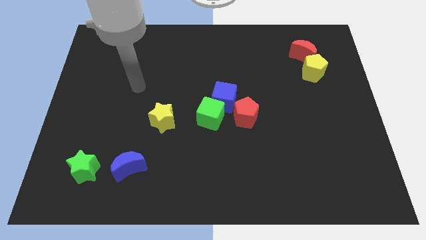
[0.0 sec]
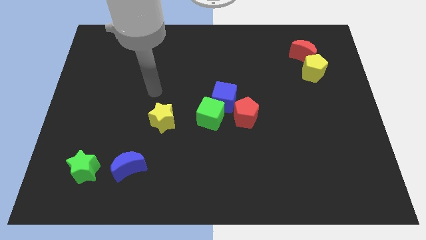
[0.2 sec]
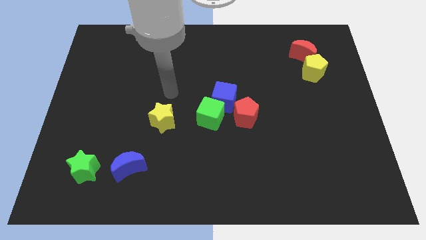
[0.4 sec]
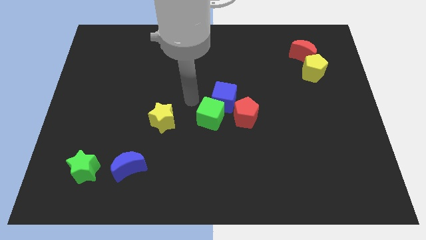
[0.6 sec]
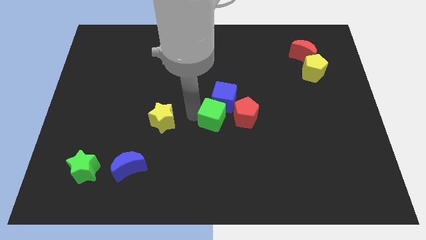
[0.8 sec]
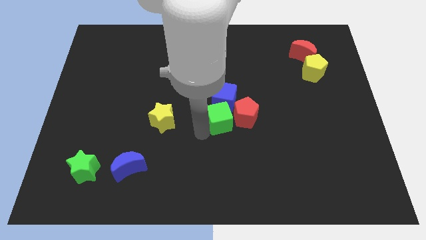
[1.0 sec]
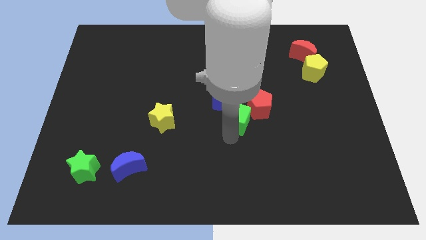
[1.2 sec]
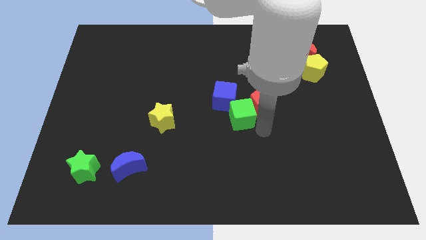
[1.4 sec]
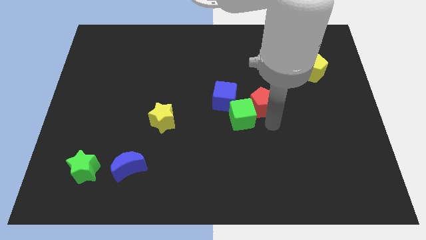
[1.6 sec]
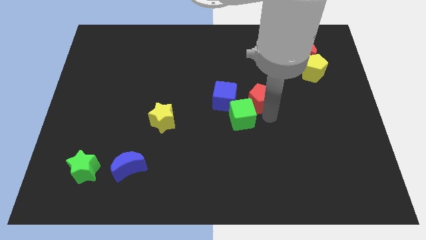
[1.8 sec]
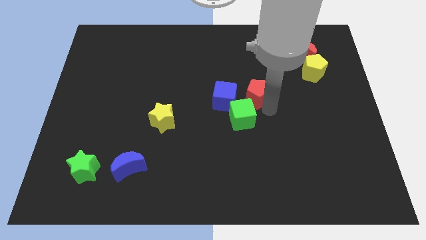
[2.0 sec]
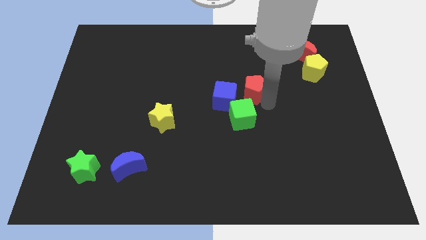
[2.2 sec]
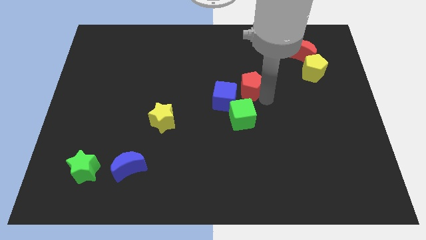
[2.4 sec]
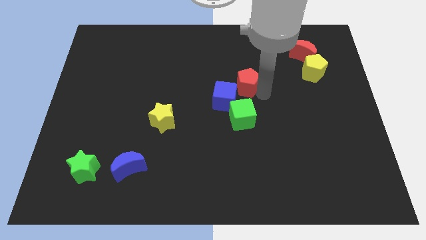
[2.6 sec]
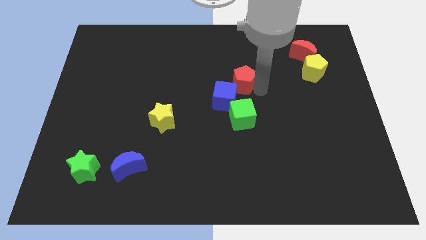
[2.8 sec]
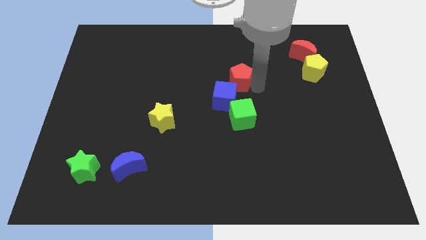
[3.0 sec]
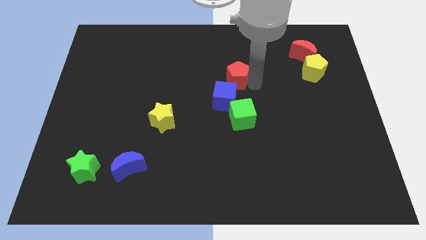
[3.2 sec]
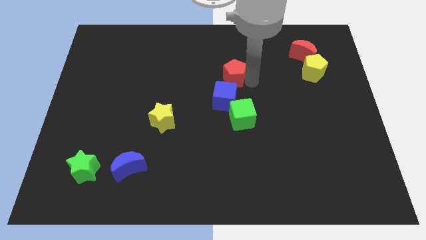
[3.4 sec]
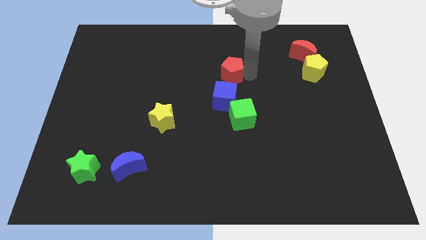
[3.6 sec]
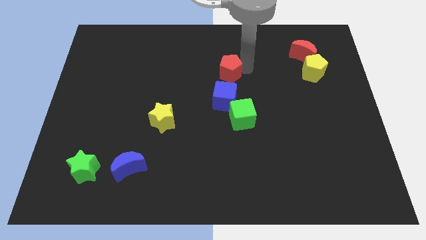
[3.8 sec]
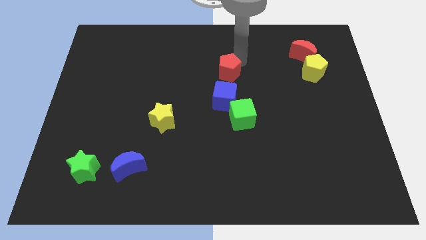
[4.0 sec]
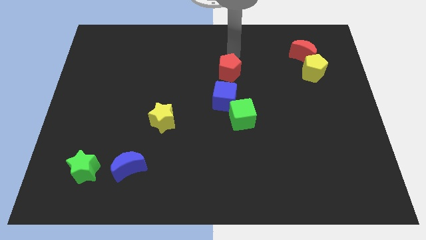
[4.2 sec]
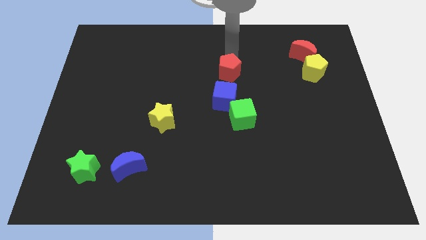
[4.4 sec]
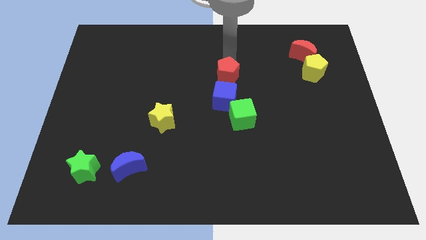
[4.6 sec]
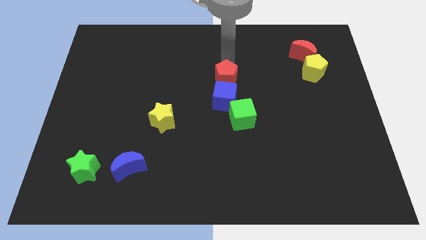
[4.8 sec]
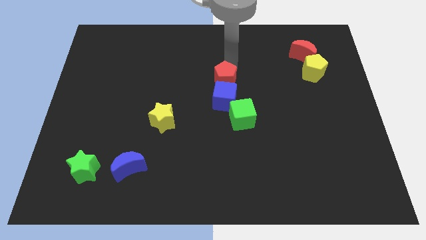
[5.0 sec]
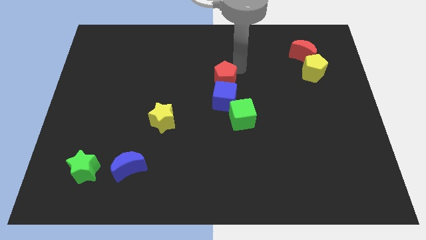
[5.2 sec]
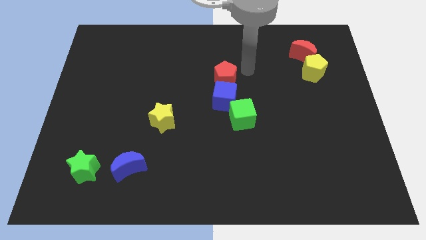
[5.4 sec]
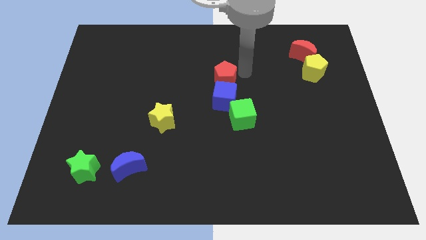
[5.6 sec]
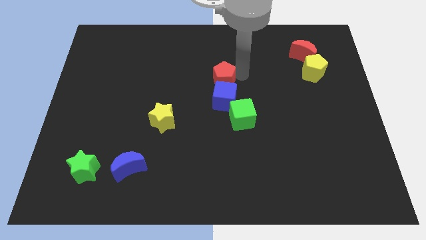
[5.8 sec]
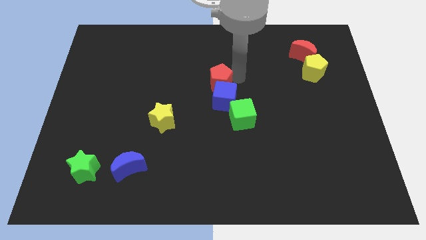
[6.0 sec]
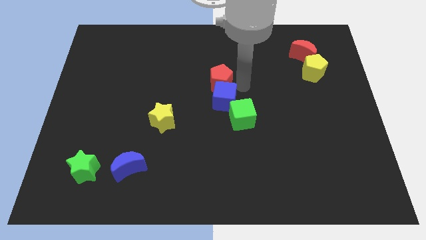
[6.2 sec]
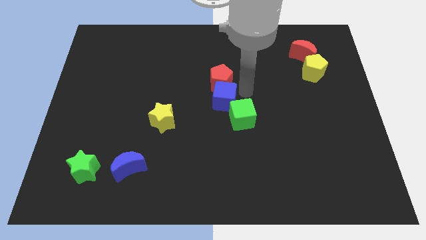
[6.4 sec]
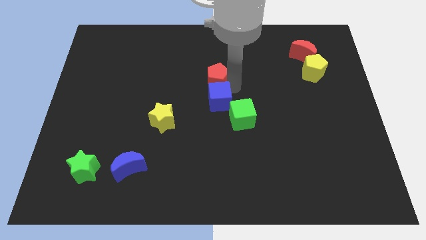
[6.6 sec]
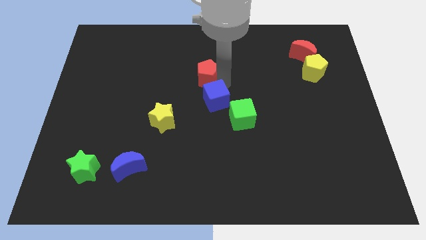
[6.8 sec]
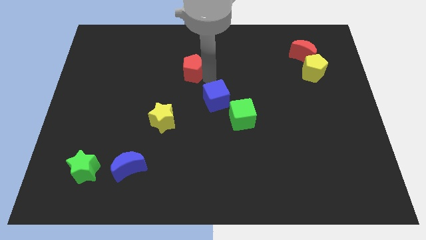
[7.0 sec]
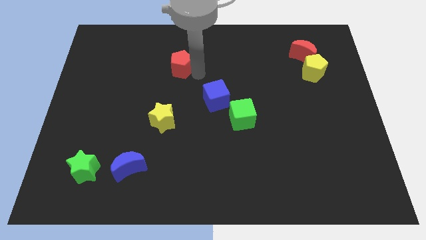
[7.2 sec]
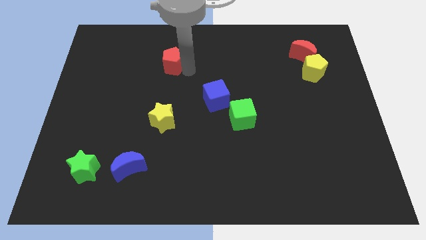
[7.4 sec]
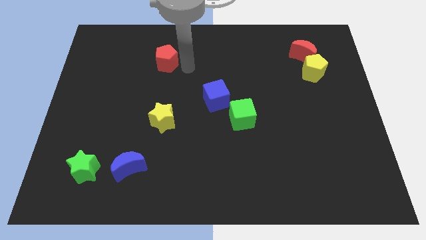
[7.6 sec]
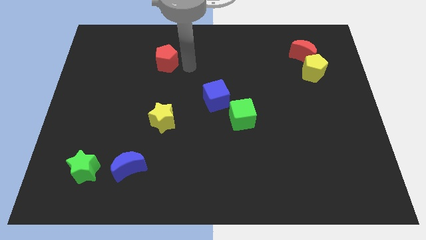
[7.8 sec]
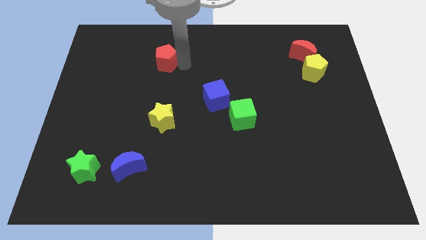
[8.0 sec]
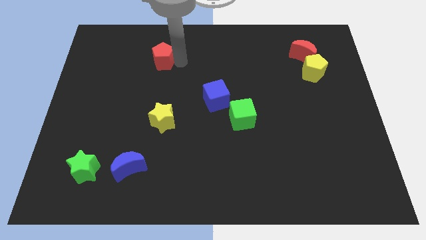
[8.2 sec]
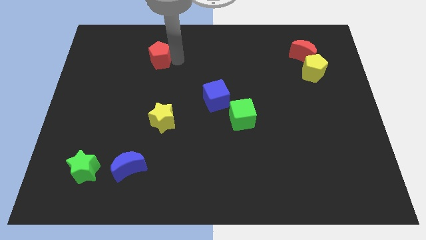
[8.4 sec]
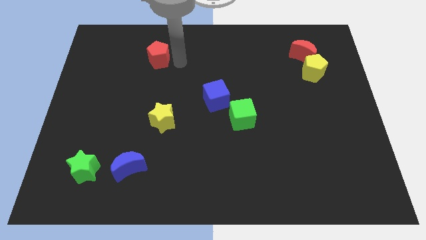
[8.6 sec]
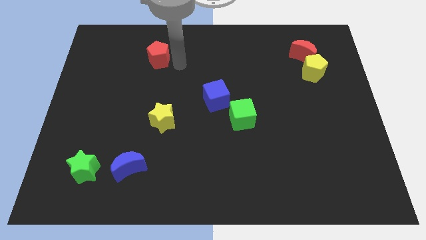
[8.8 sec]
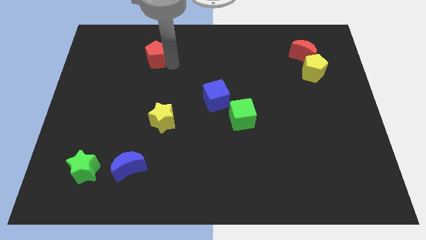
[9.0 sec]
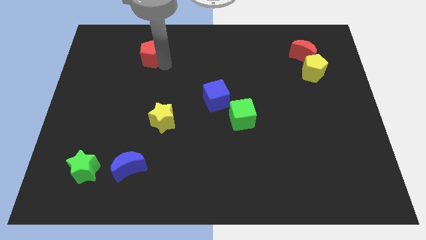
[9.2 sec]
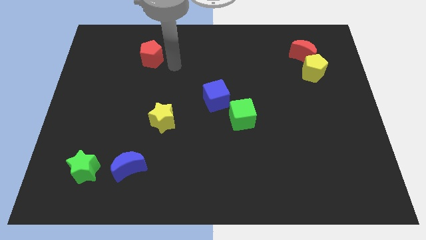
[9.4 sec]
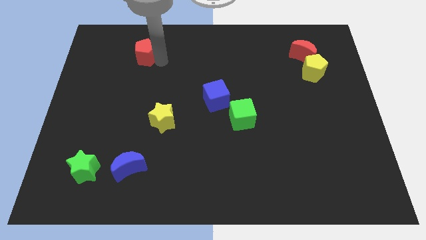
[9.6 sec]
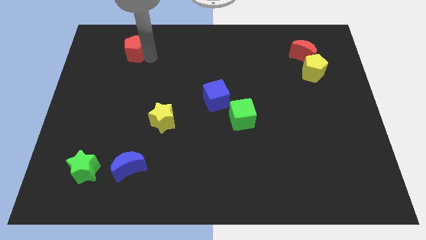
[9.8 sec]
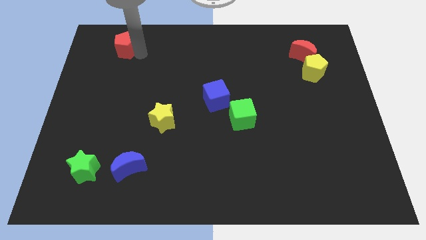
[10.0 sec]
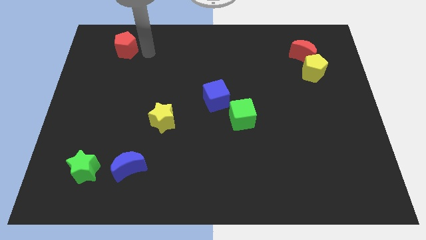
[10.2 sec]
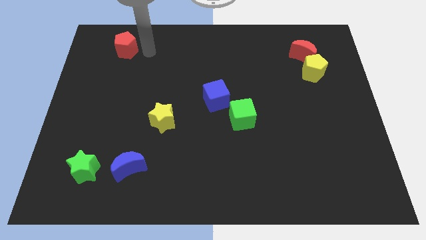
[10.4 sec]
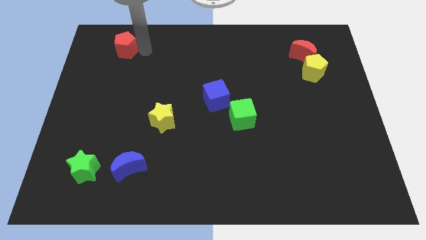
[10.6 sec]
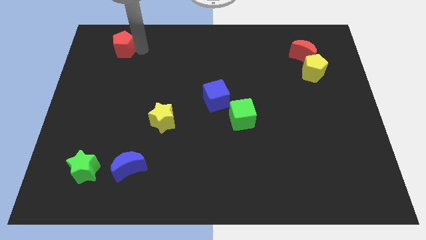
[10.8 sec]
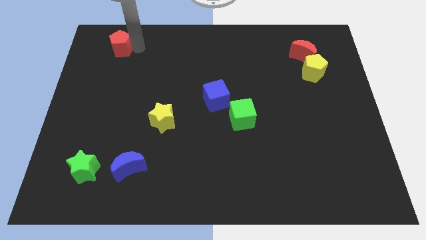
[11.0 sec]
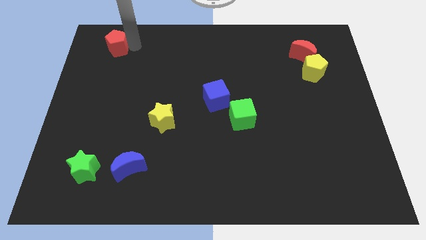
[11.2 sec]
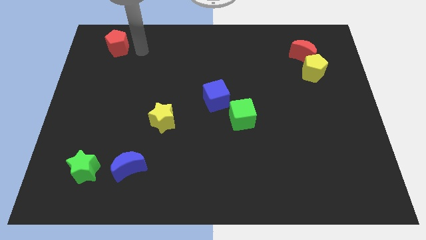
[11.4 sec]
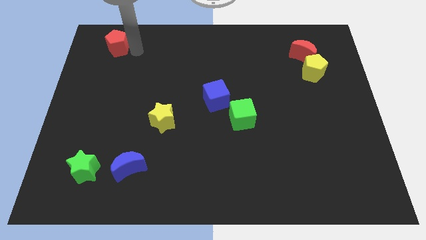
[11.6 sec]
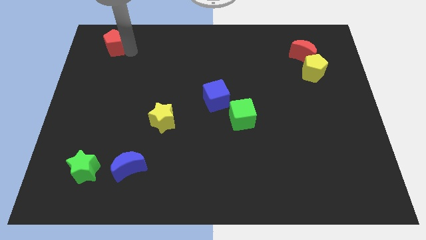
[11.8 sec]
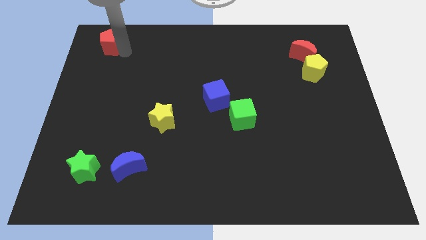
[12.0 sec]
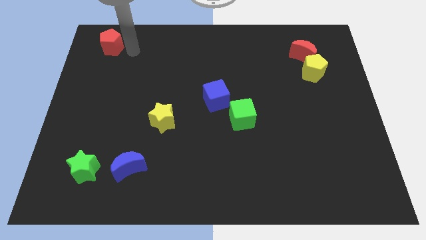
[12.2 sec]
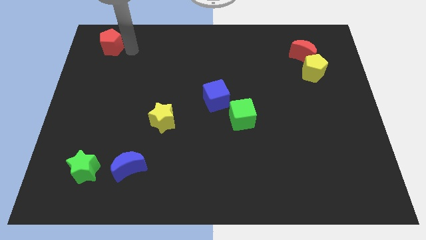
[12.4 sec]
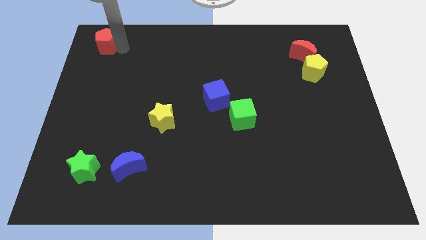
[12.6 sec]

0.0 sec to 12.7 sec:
move the red pentagon to the top left corner
